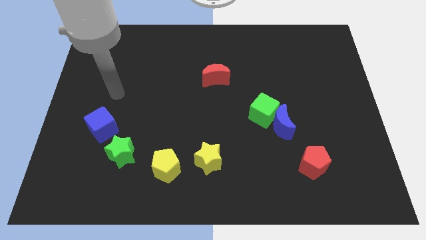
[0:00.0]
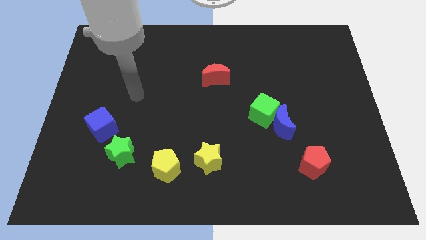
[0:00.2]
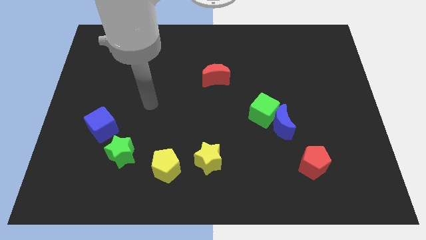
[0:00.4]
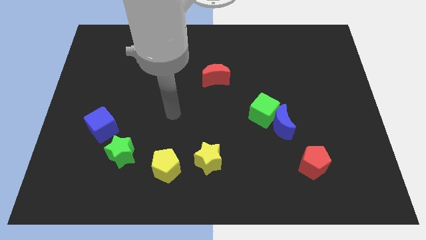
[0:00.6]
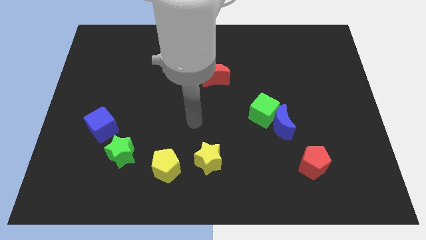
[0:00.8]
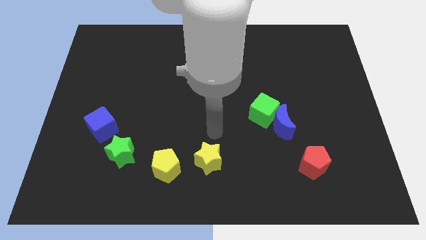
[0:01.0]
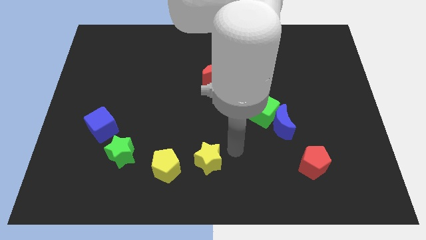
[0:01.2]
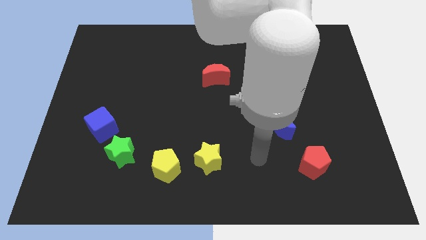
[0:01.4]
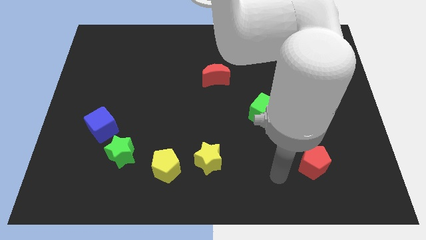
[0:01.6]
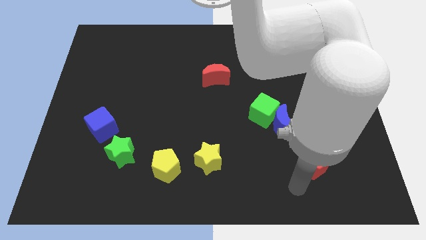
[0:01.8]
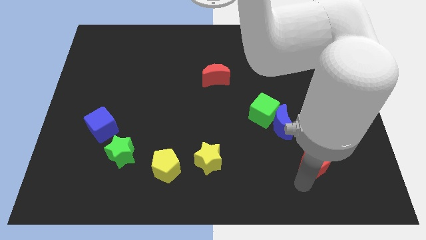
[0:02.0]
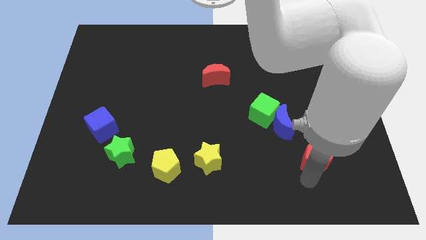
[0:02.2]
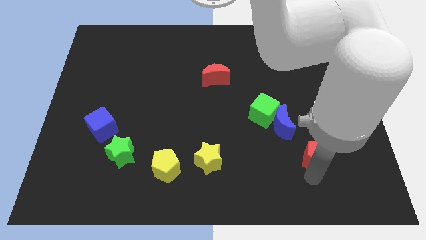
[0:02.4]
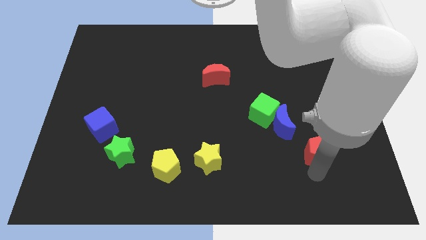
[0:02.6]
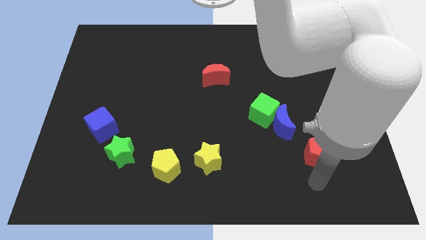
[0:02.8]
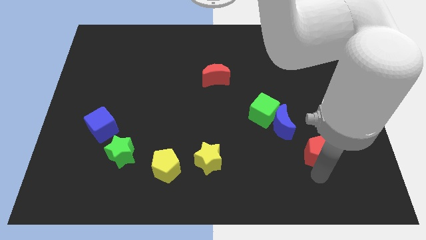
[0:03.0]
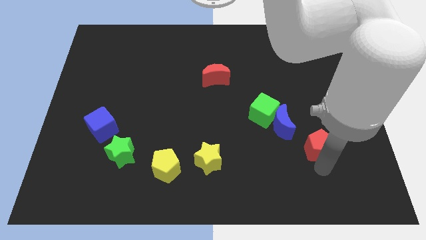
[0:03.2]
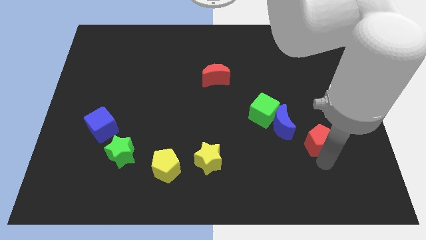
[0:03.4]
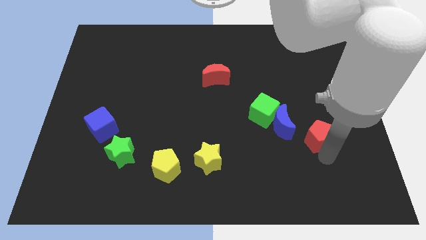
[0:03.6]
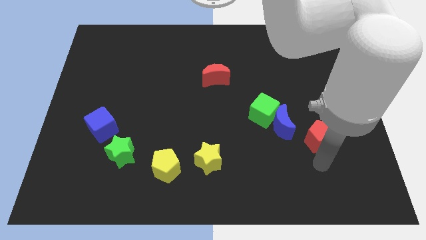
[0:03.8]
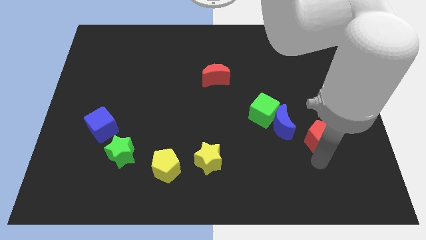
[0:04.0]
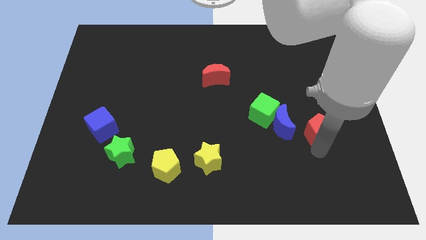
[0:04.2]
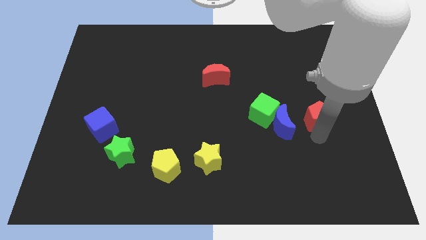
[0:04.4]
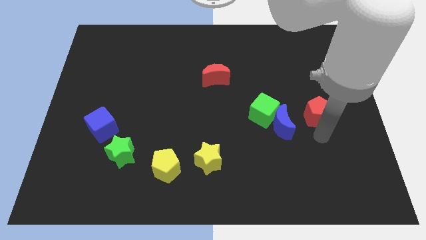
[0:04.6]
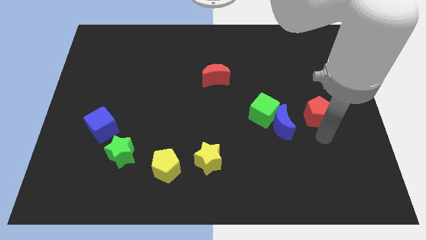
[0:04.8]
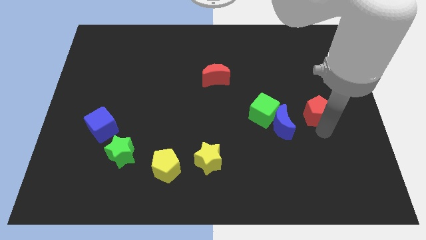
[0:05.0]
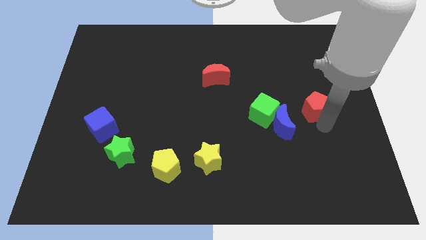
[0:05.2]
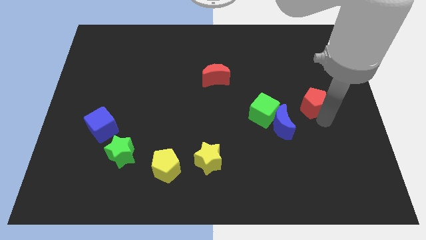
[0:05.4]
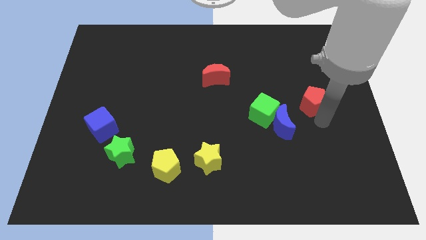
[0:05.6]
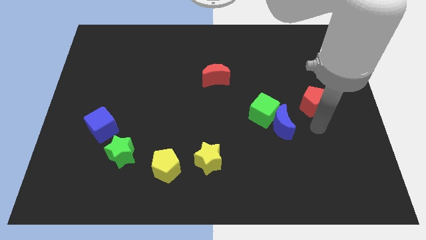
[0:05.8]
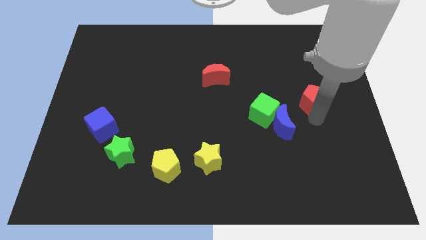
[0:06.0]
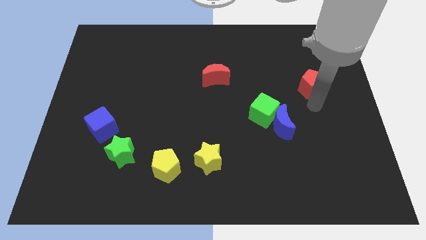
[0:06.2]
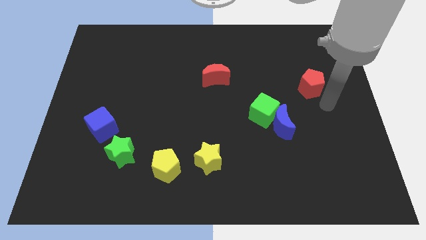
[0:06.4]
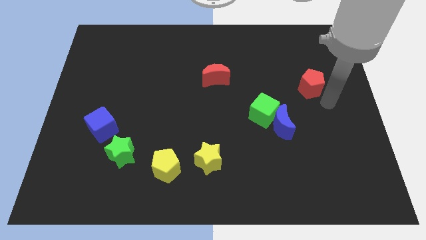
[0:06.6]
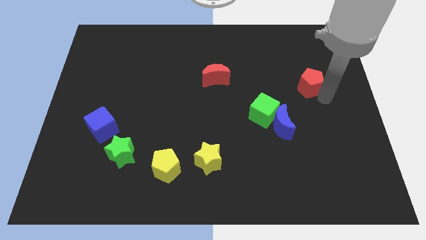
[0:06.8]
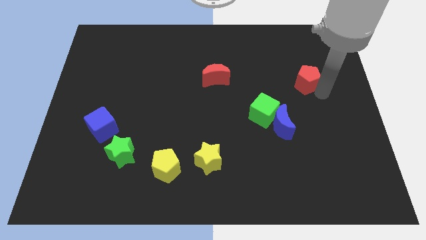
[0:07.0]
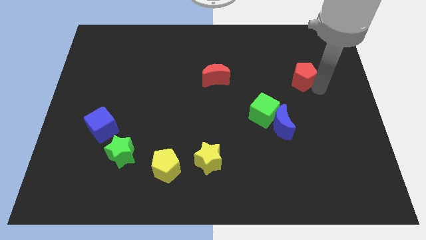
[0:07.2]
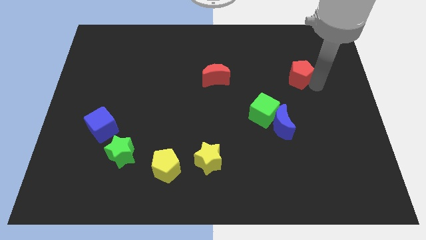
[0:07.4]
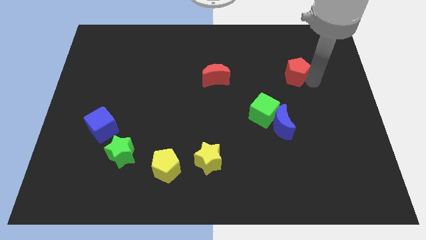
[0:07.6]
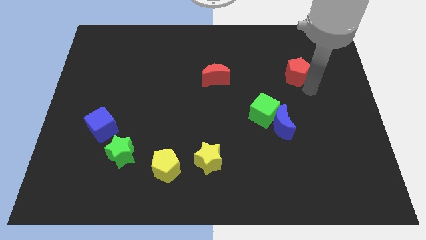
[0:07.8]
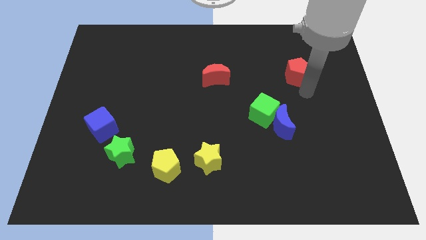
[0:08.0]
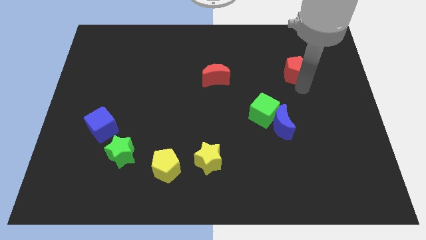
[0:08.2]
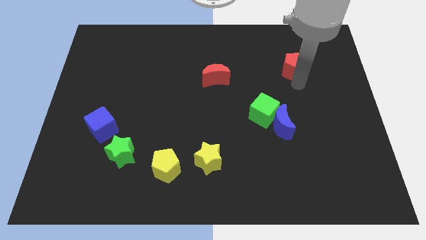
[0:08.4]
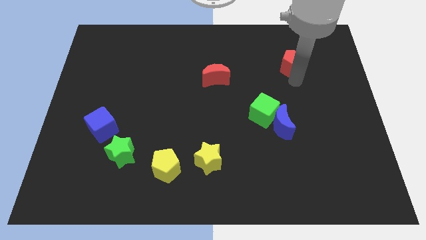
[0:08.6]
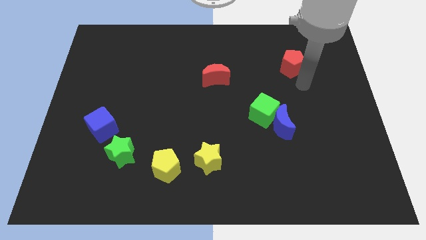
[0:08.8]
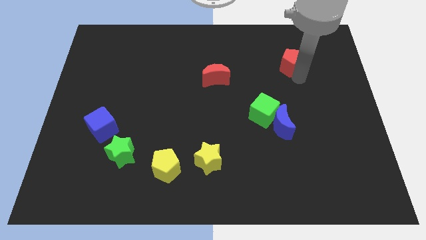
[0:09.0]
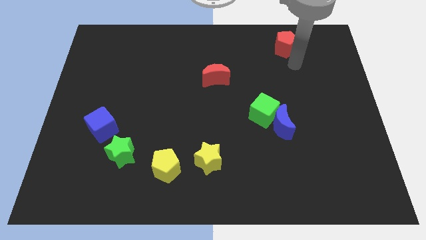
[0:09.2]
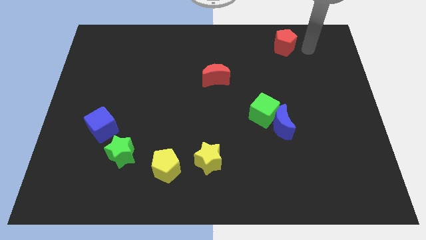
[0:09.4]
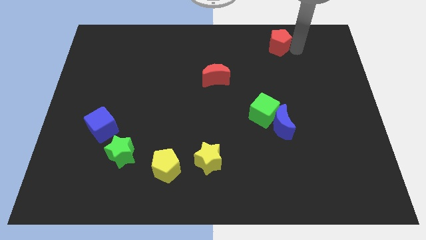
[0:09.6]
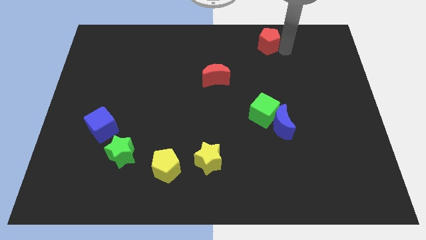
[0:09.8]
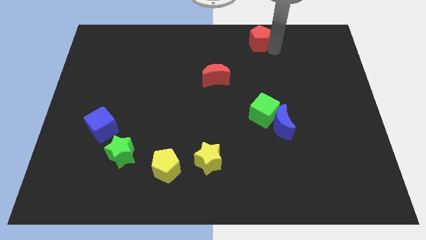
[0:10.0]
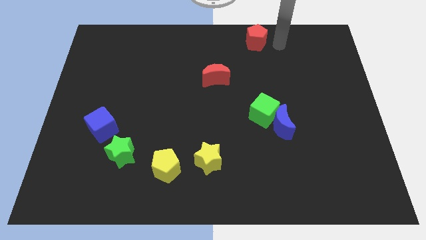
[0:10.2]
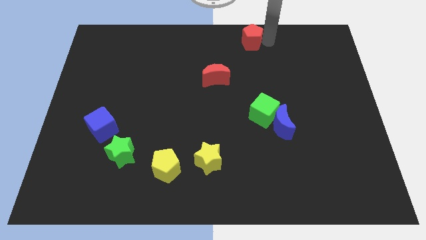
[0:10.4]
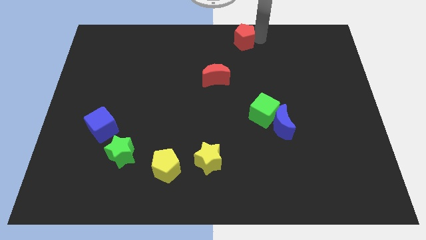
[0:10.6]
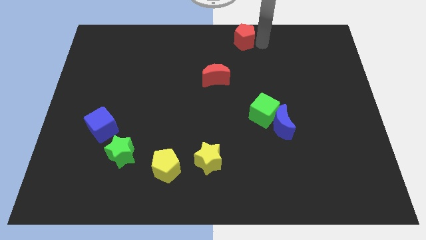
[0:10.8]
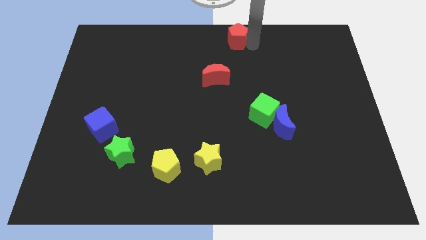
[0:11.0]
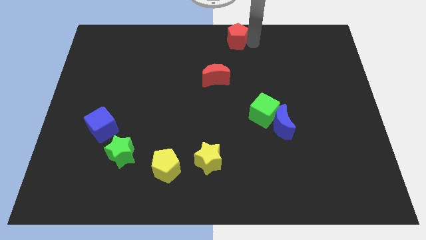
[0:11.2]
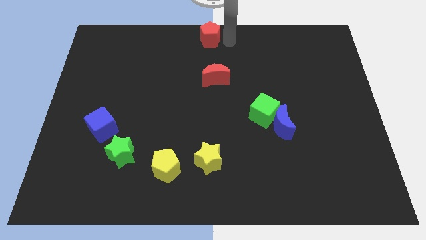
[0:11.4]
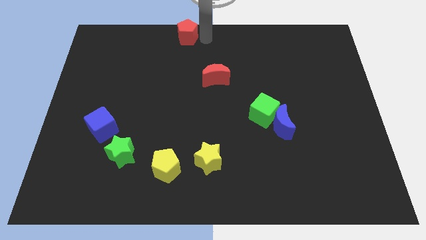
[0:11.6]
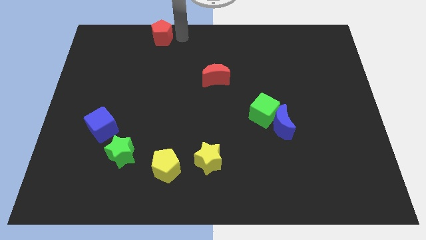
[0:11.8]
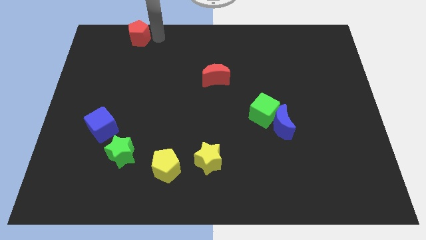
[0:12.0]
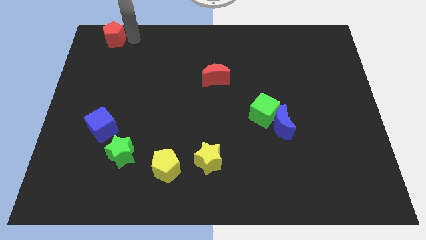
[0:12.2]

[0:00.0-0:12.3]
move the red pentagon to the upper left corner
